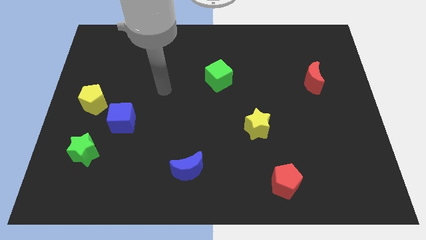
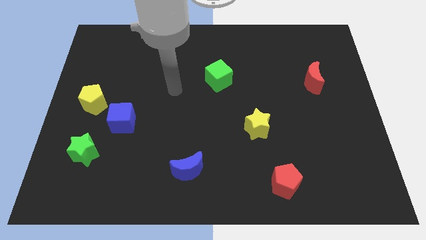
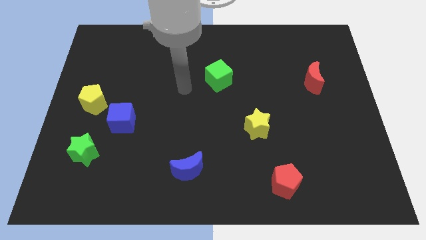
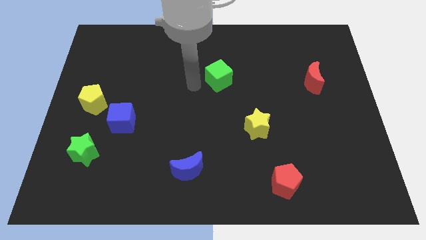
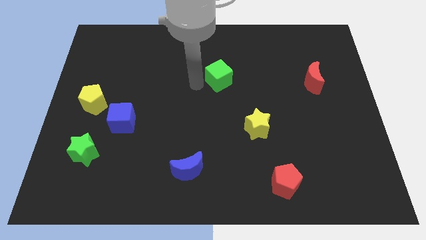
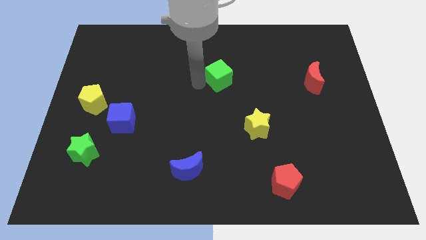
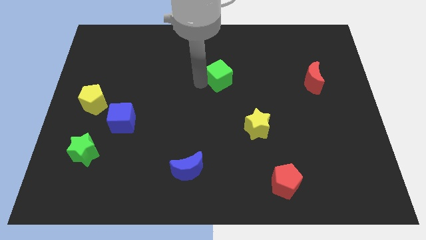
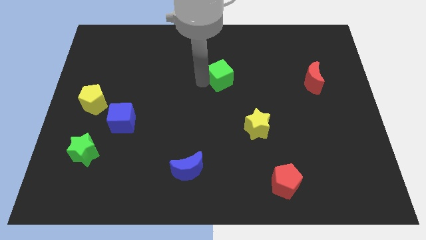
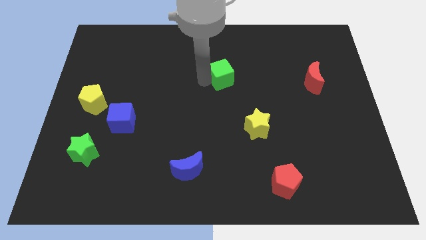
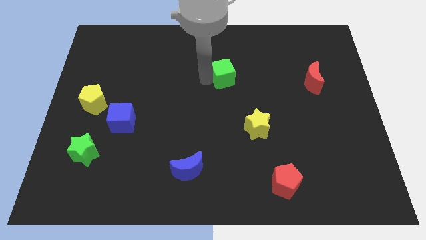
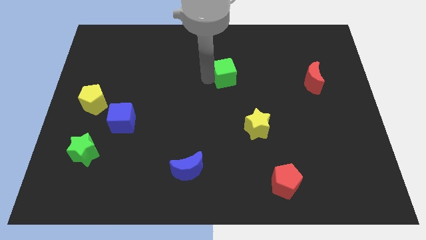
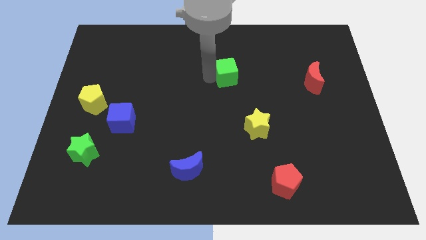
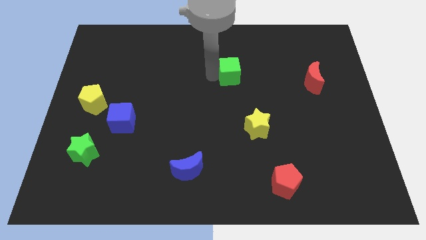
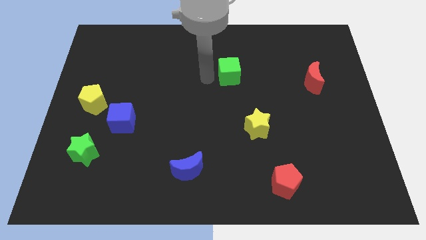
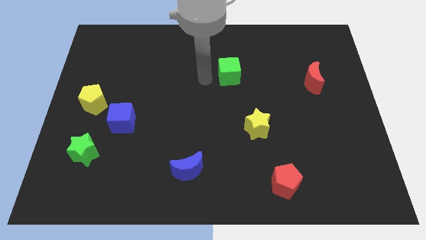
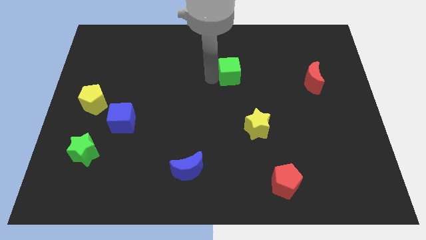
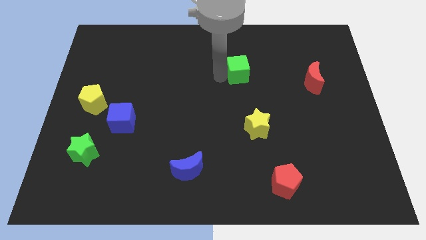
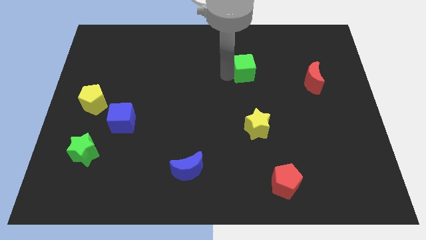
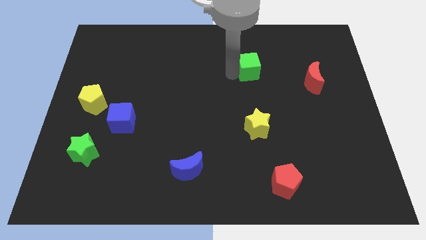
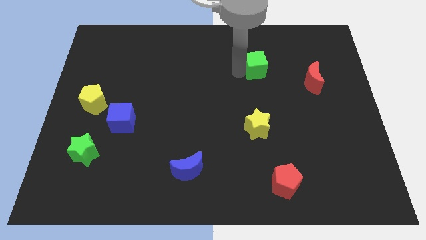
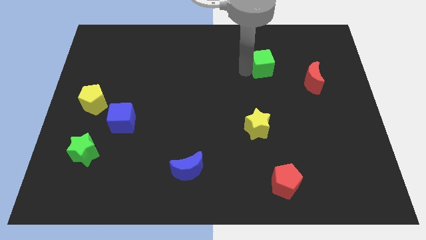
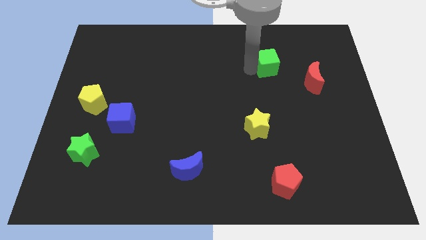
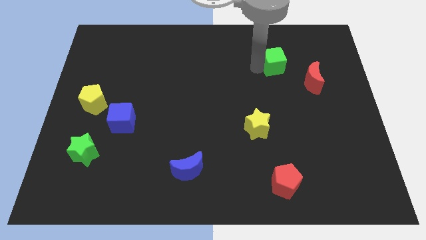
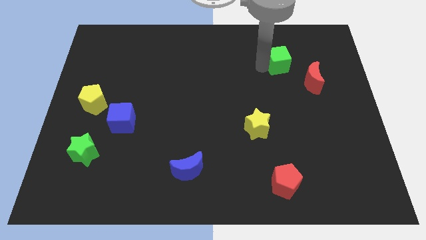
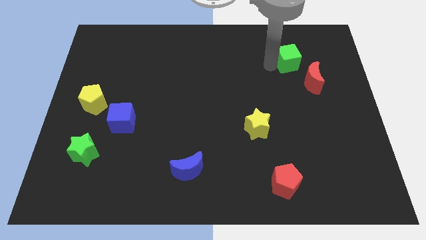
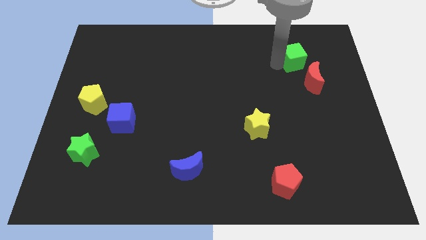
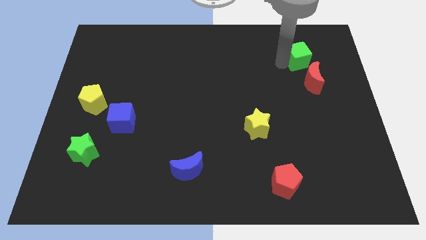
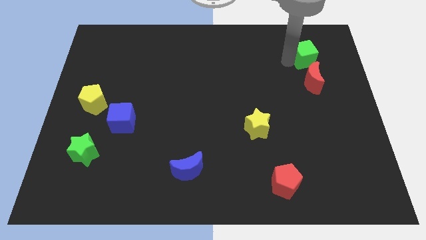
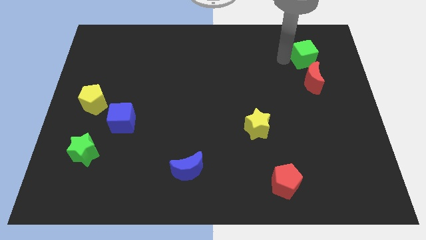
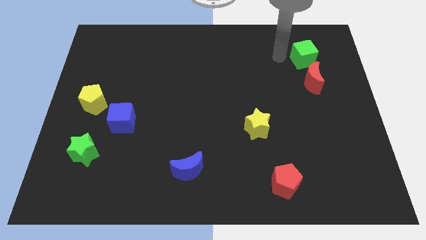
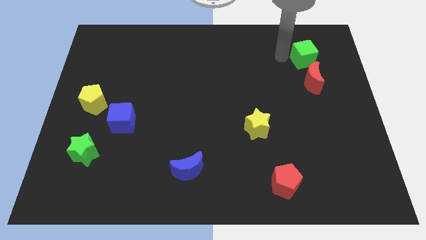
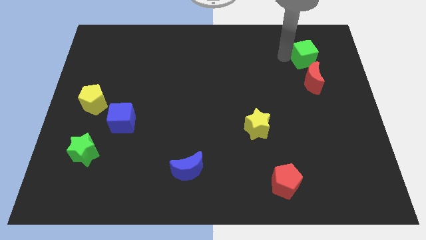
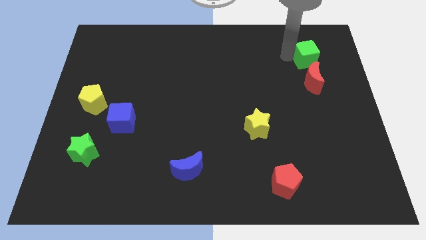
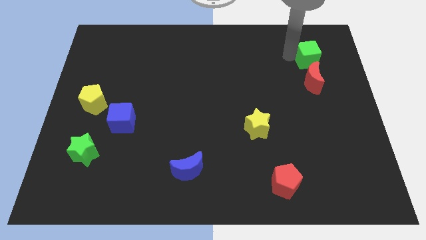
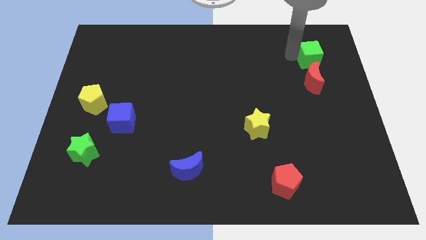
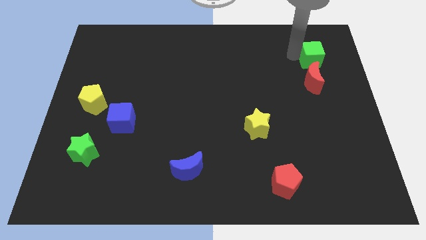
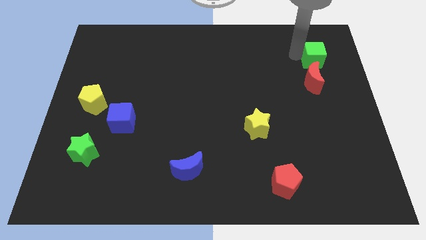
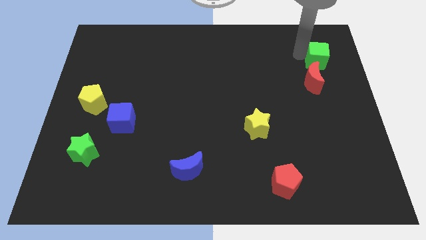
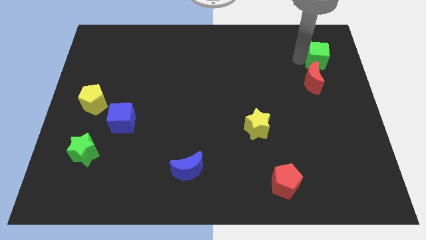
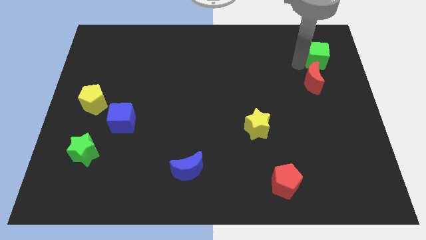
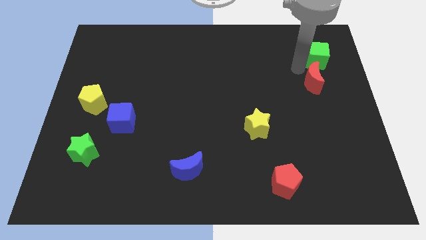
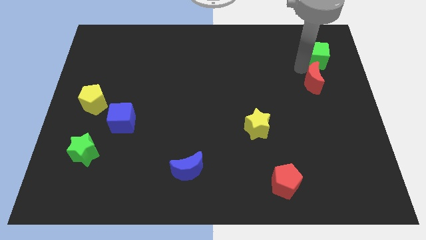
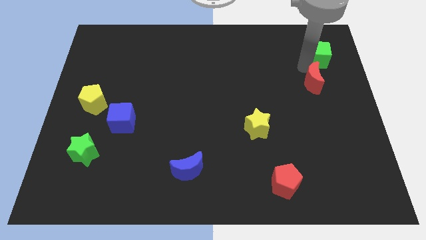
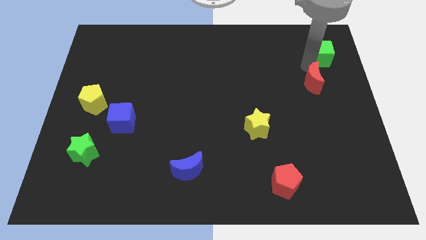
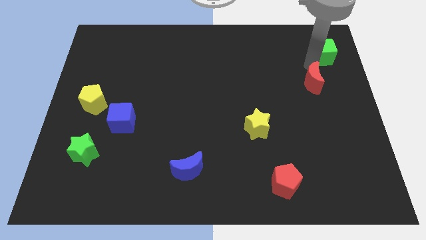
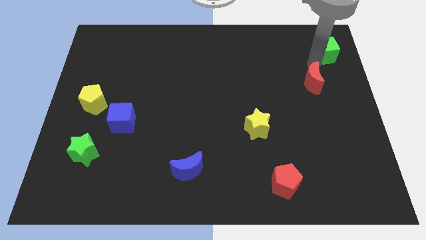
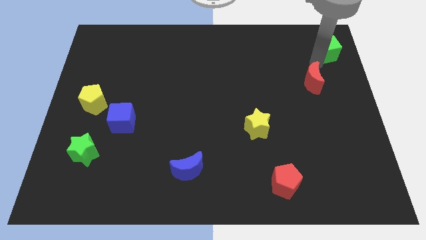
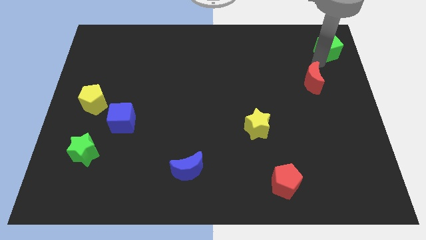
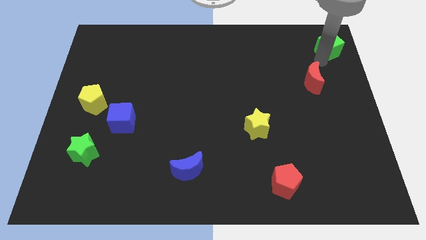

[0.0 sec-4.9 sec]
put the green cube to the top right of the board

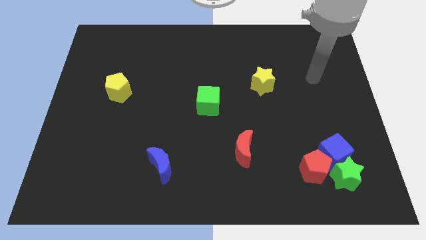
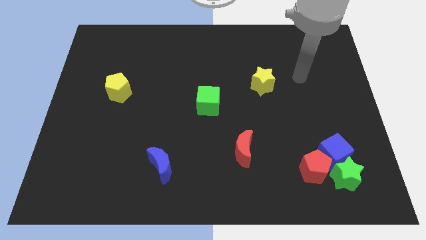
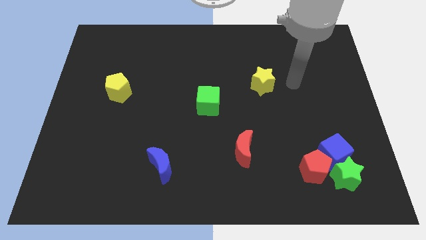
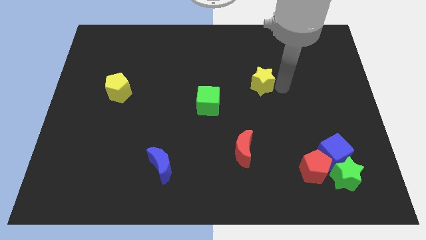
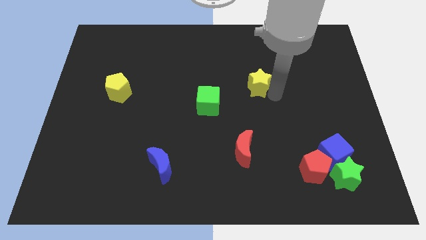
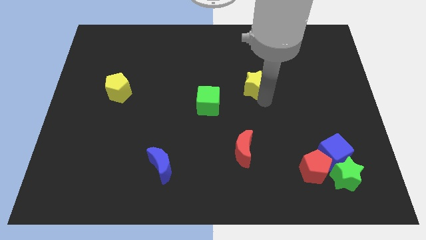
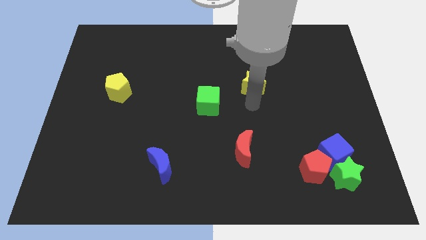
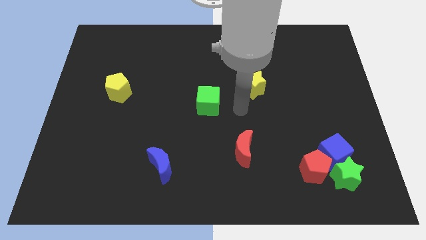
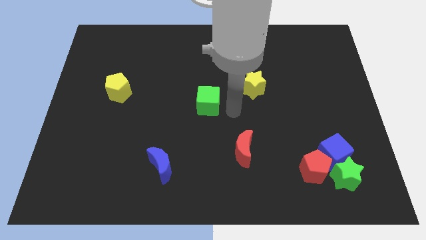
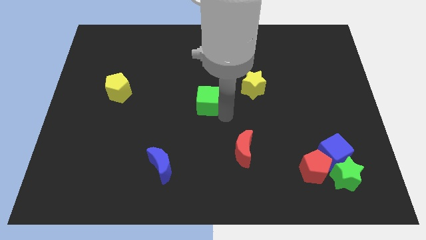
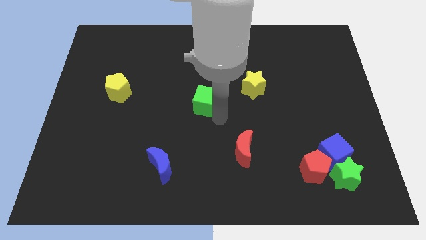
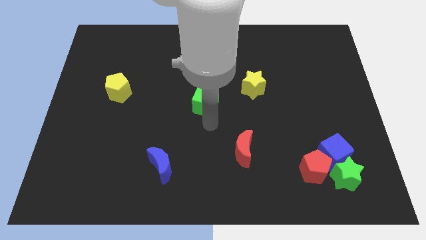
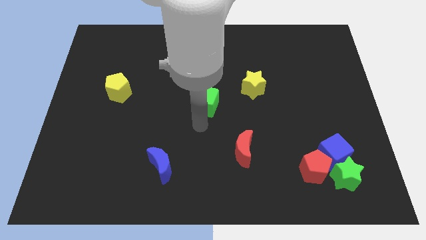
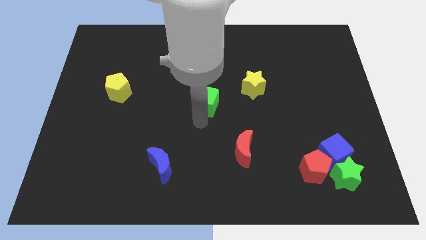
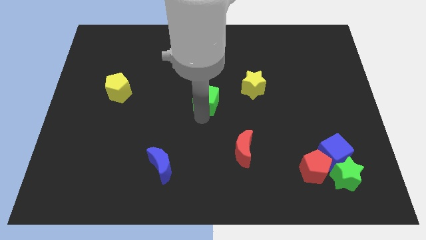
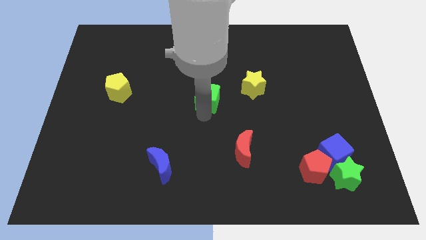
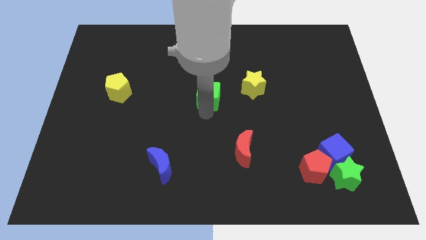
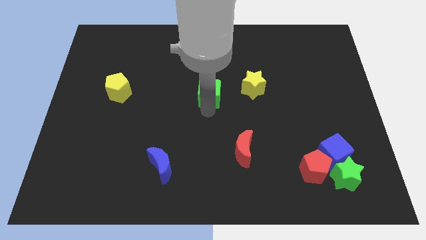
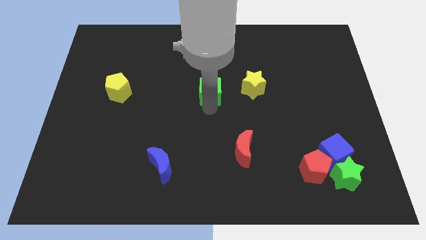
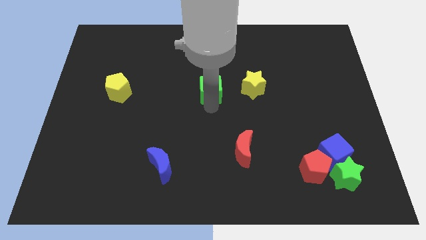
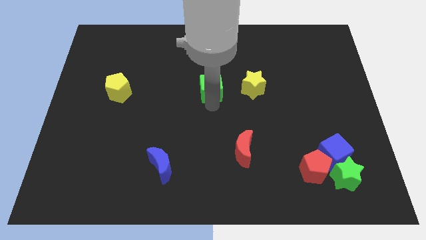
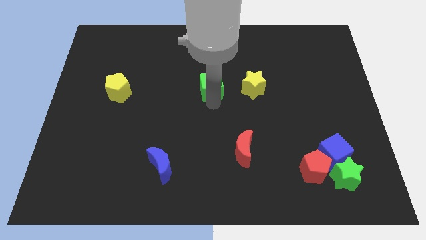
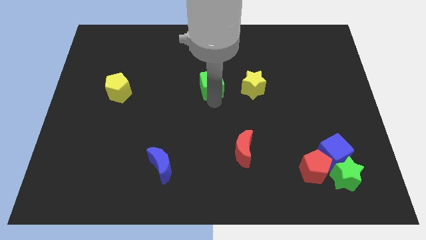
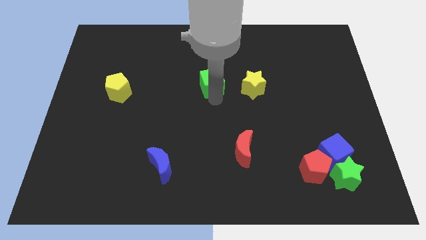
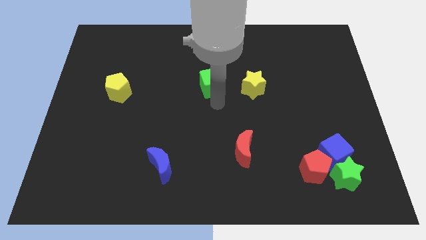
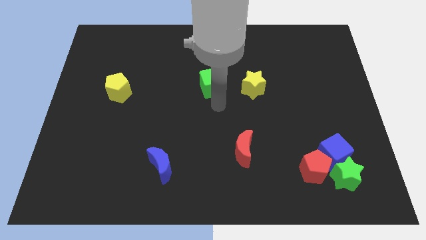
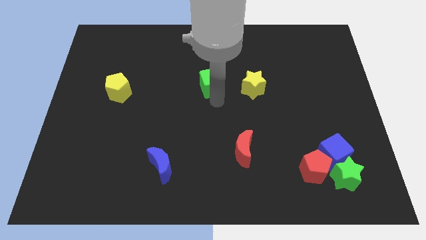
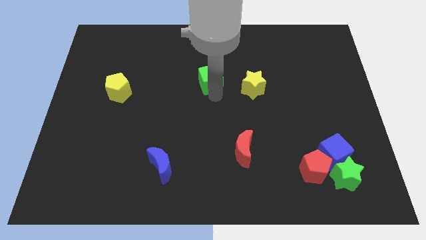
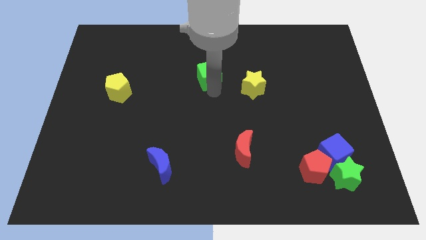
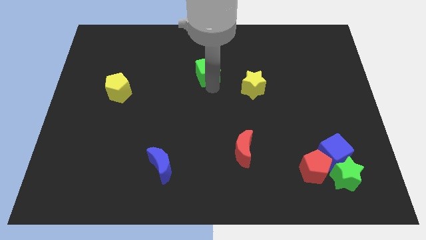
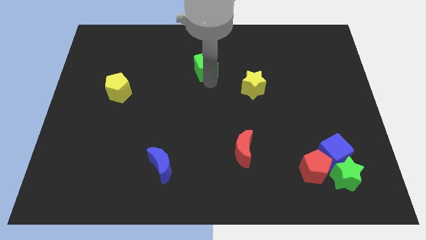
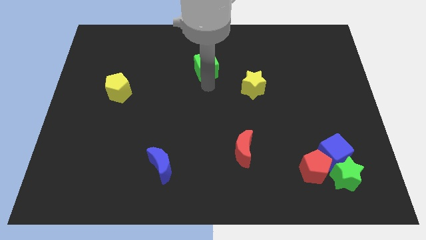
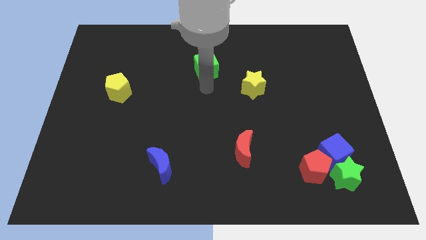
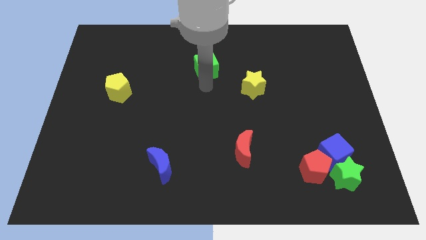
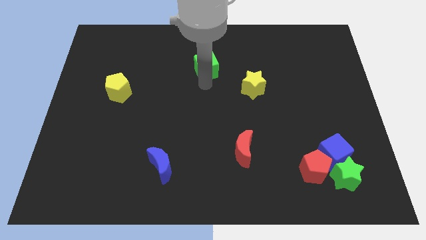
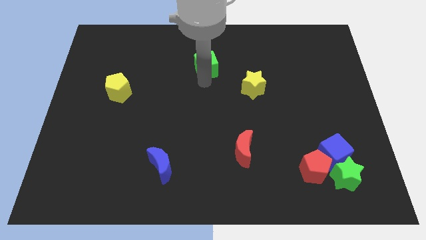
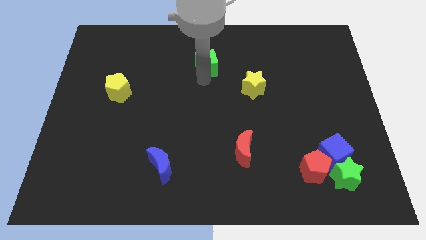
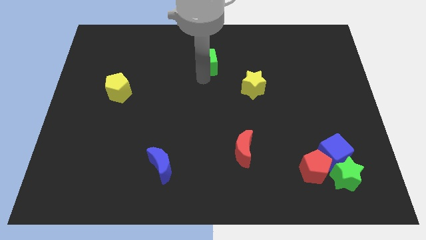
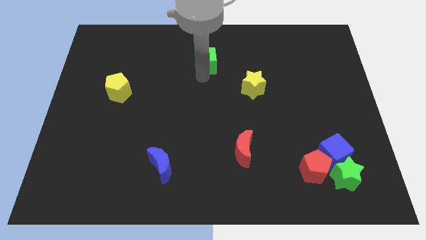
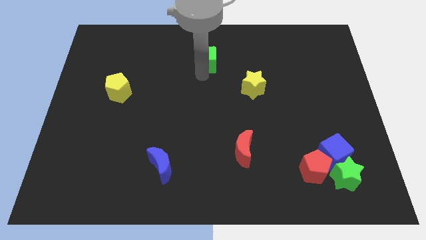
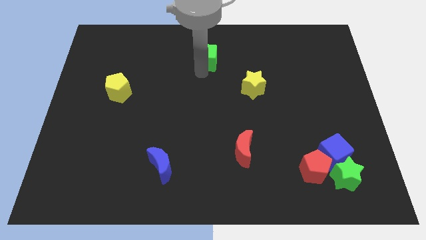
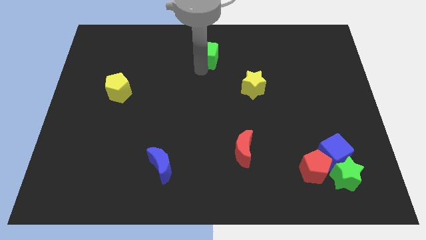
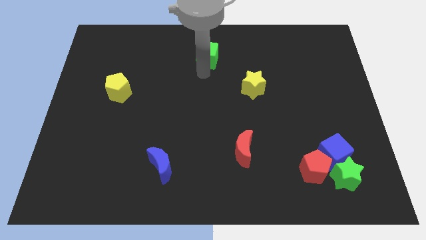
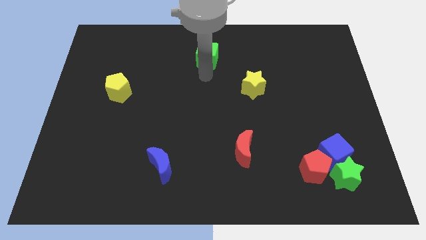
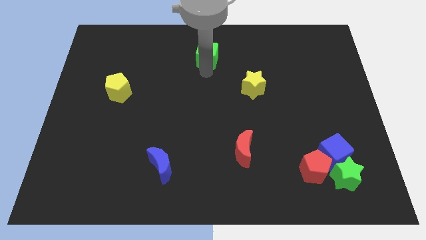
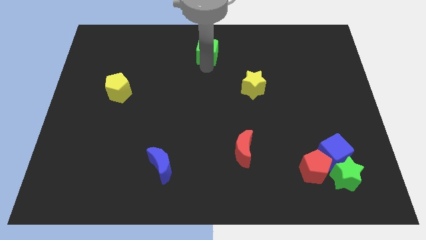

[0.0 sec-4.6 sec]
slide the green cube to the towards your base
